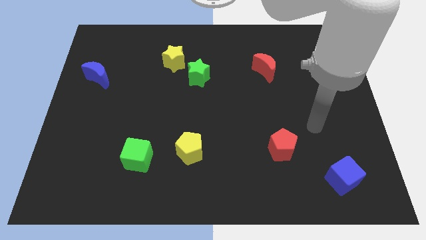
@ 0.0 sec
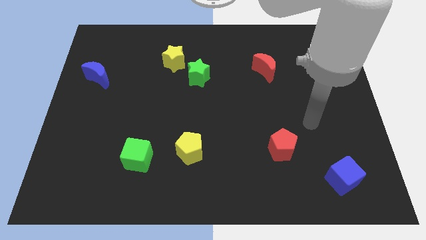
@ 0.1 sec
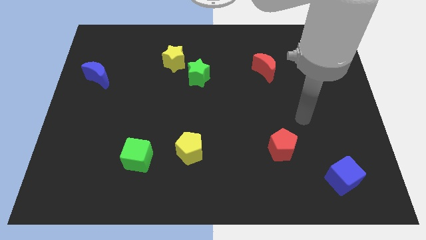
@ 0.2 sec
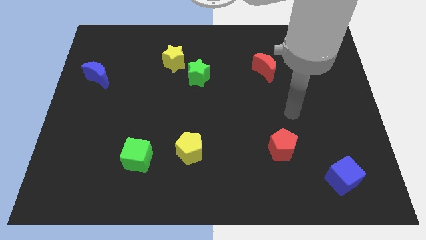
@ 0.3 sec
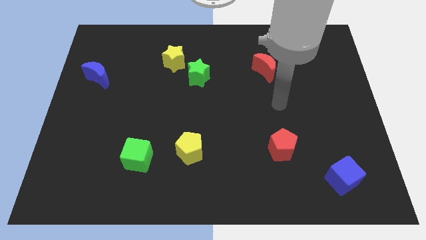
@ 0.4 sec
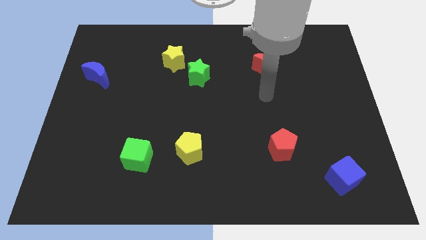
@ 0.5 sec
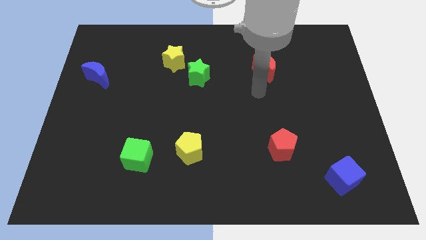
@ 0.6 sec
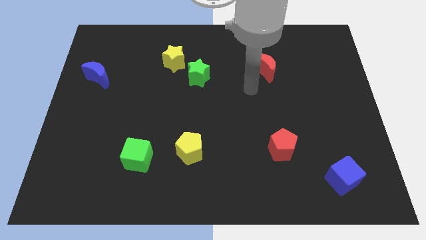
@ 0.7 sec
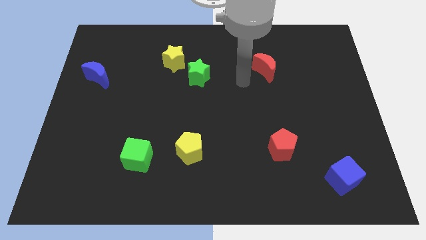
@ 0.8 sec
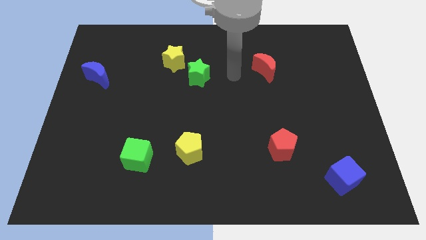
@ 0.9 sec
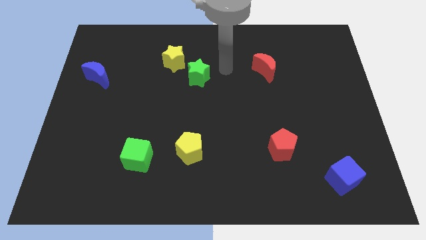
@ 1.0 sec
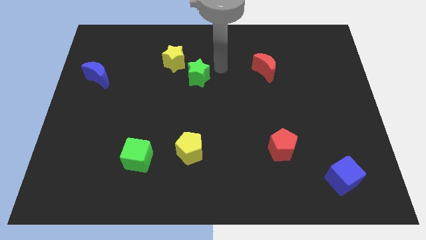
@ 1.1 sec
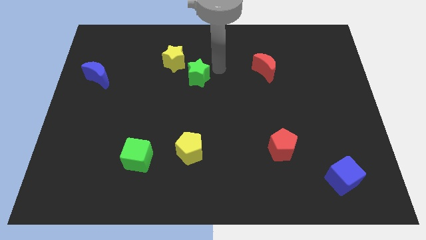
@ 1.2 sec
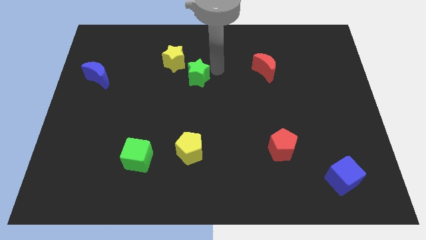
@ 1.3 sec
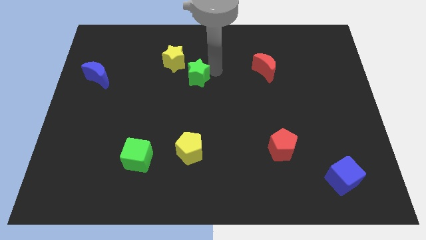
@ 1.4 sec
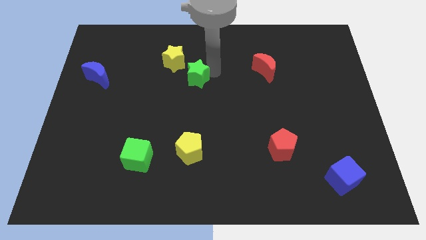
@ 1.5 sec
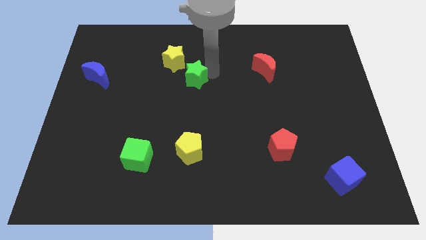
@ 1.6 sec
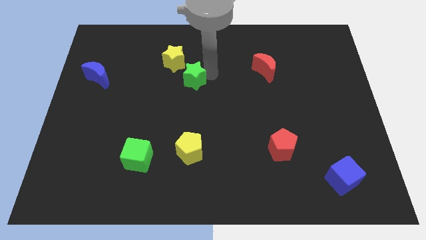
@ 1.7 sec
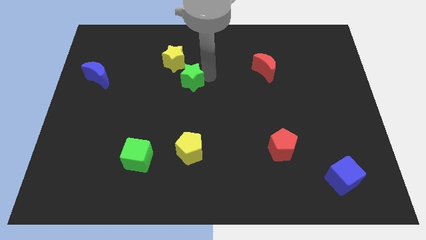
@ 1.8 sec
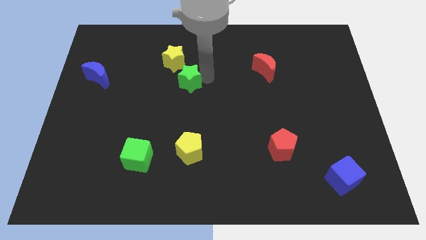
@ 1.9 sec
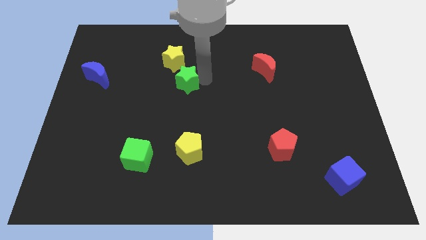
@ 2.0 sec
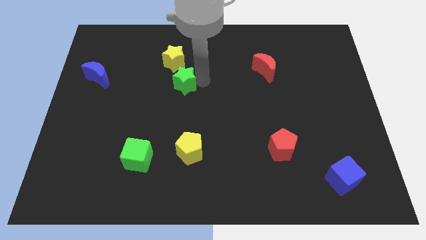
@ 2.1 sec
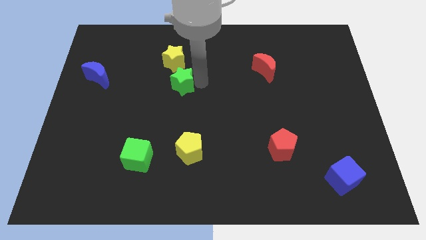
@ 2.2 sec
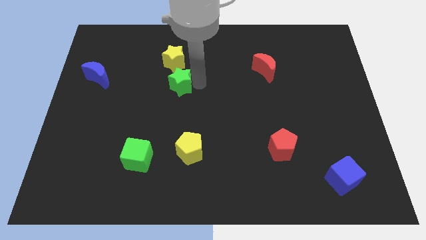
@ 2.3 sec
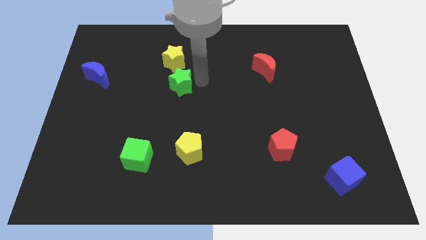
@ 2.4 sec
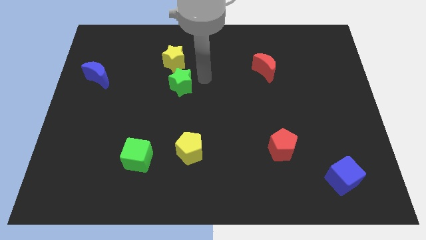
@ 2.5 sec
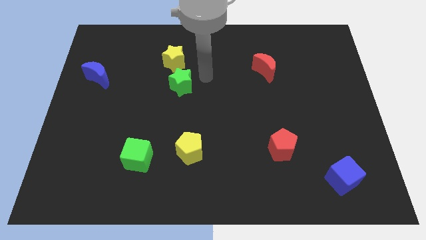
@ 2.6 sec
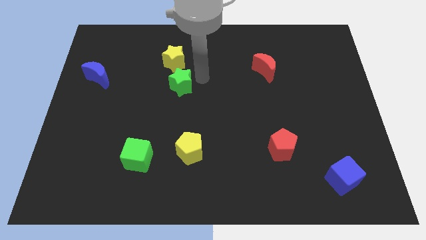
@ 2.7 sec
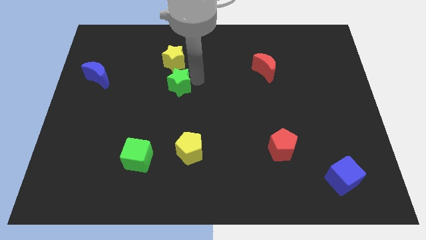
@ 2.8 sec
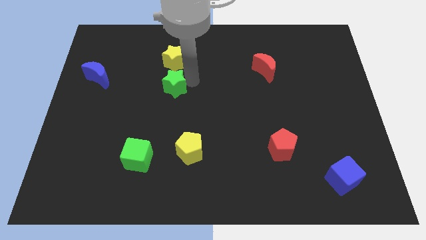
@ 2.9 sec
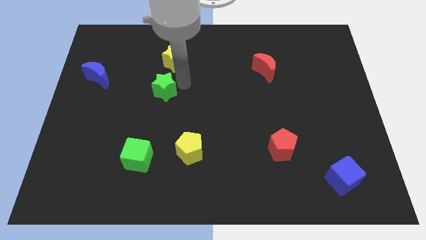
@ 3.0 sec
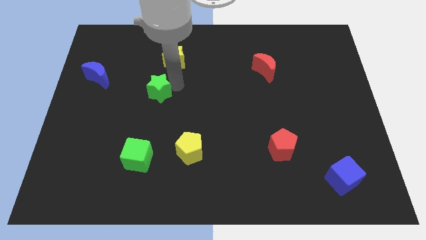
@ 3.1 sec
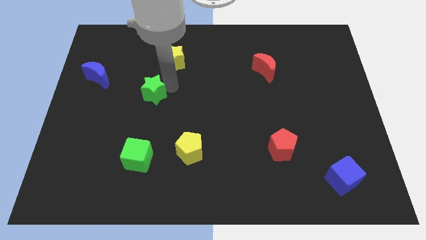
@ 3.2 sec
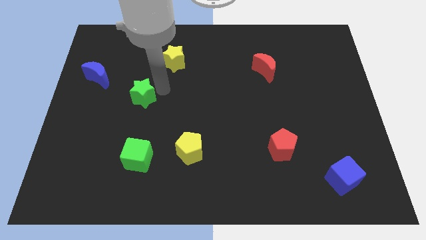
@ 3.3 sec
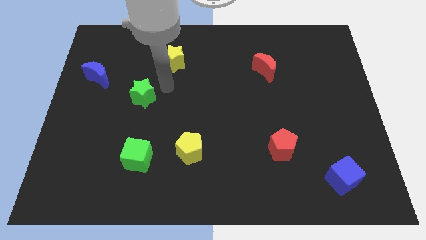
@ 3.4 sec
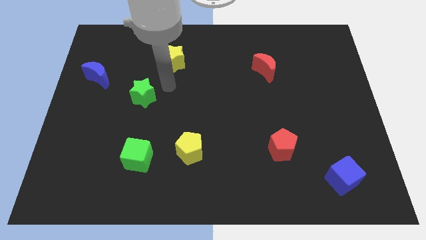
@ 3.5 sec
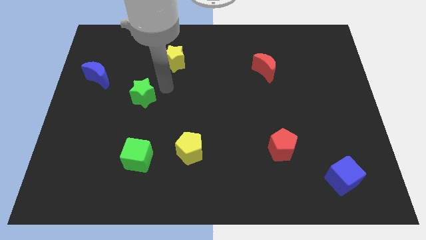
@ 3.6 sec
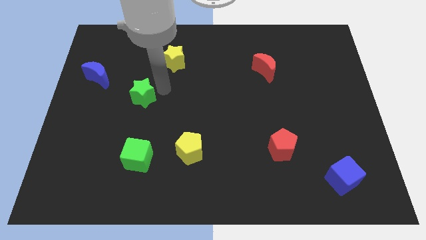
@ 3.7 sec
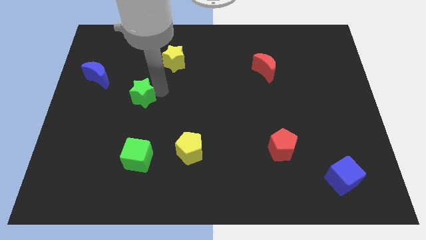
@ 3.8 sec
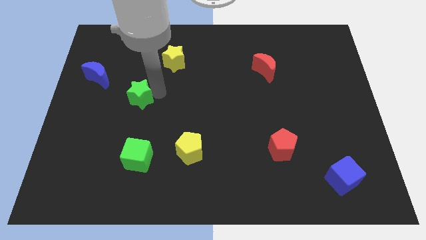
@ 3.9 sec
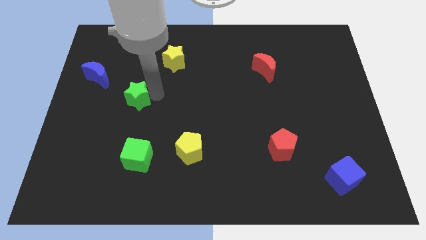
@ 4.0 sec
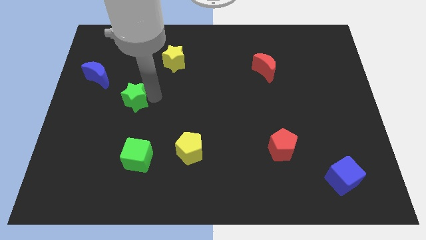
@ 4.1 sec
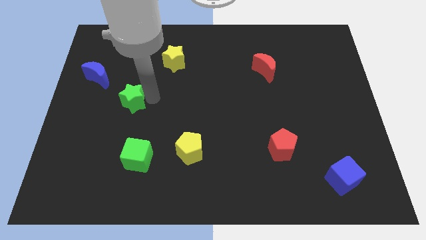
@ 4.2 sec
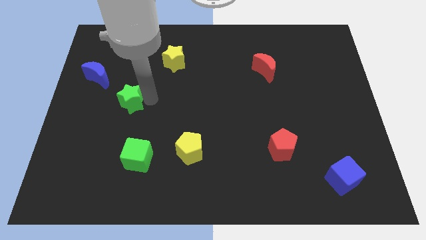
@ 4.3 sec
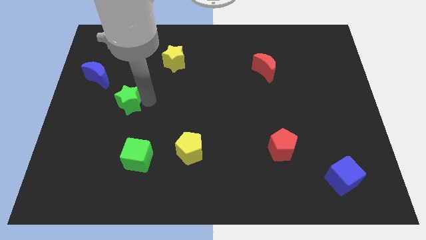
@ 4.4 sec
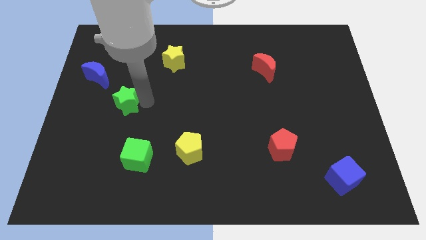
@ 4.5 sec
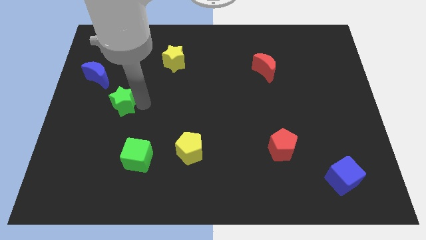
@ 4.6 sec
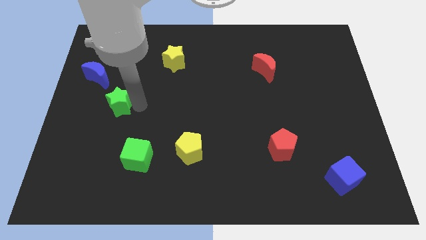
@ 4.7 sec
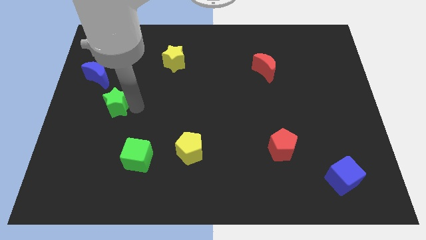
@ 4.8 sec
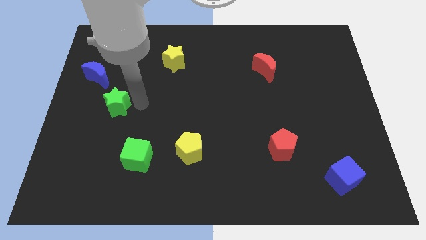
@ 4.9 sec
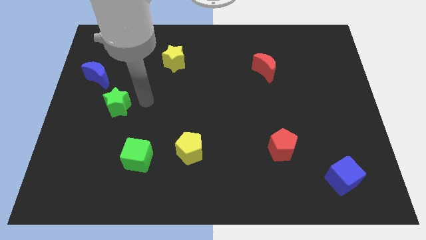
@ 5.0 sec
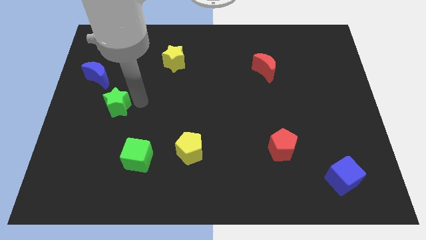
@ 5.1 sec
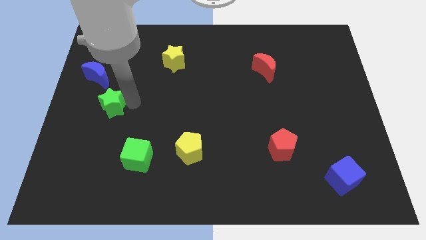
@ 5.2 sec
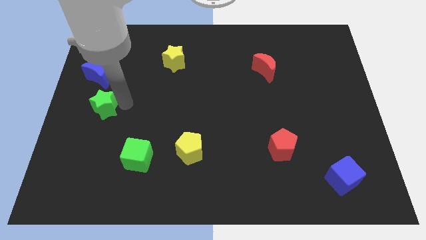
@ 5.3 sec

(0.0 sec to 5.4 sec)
push the green star to the bottom side of the blue moon
